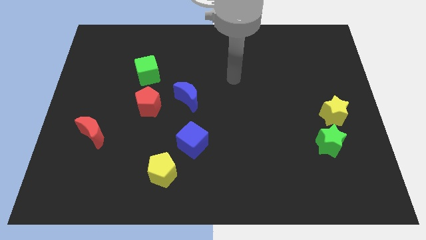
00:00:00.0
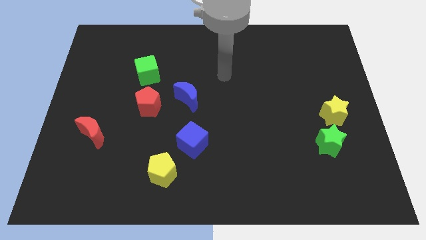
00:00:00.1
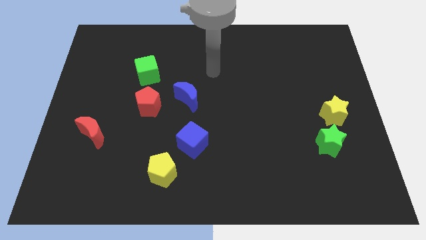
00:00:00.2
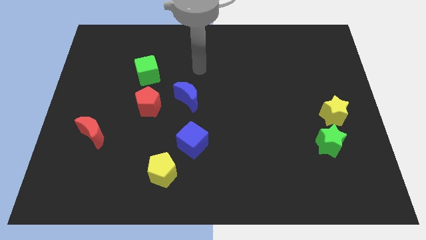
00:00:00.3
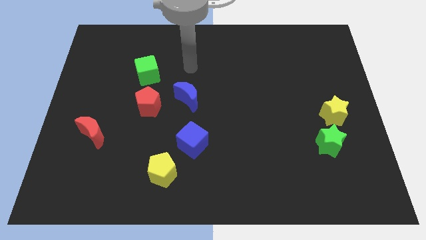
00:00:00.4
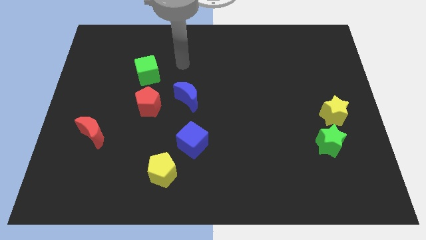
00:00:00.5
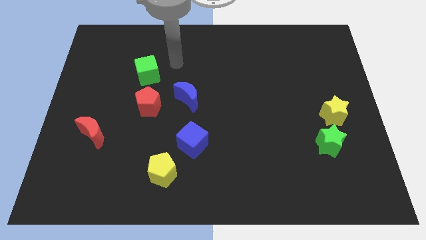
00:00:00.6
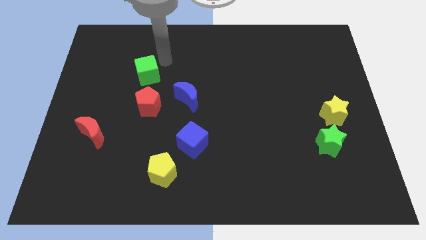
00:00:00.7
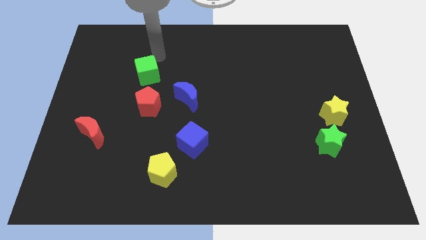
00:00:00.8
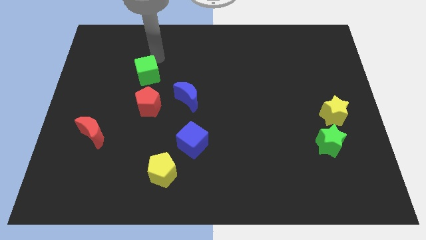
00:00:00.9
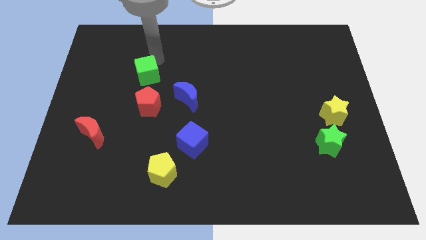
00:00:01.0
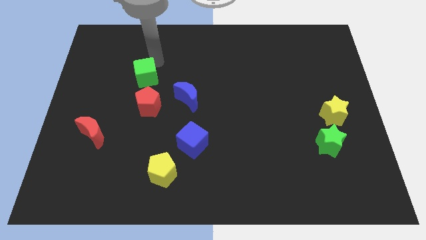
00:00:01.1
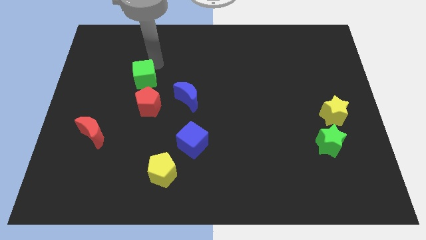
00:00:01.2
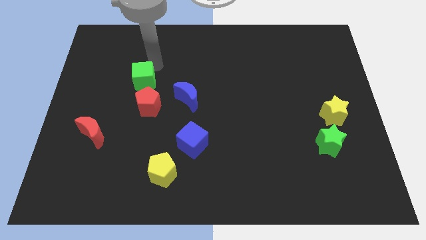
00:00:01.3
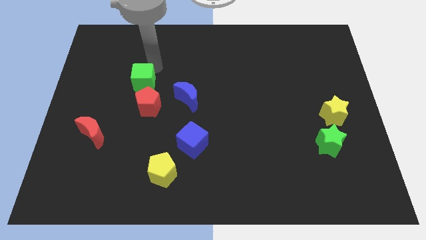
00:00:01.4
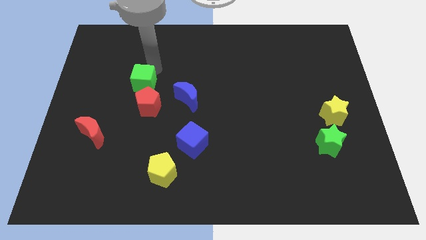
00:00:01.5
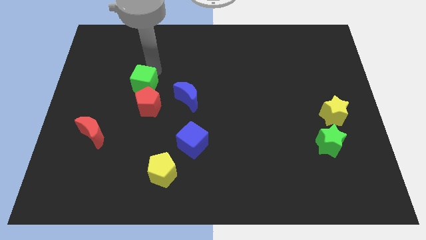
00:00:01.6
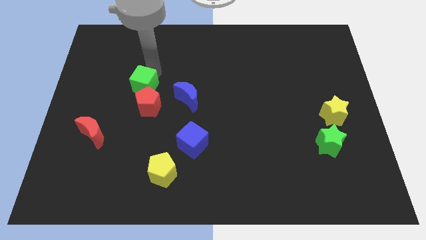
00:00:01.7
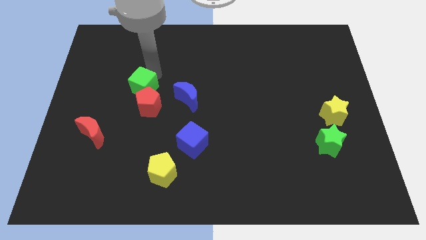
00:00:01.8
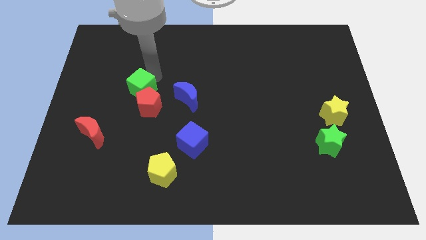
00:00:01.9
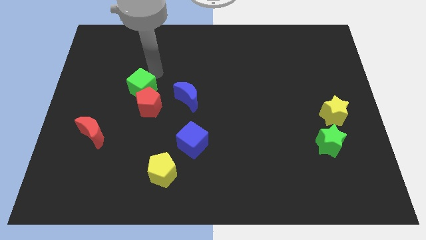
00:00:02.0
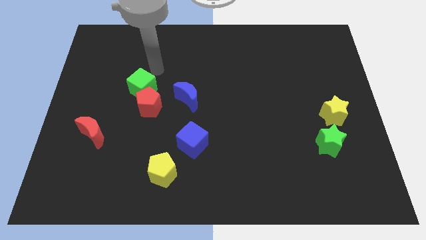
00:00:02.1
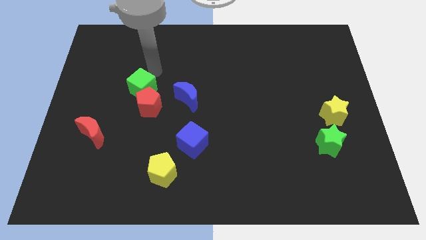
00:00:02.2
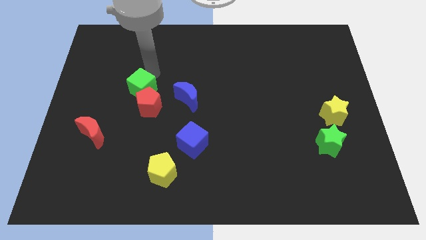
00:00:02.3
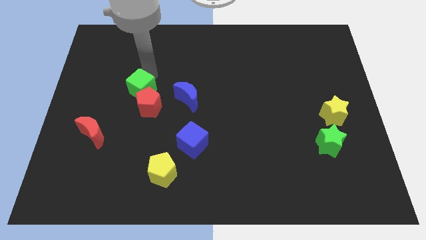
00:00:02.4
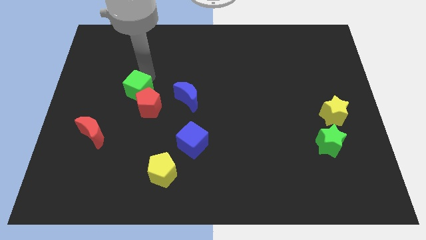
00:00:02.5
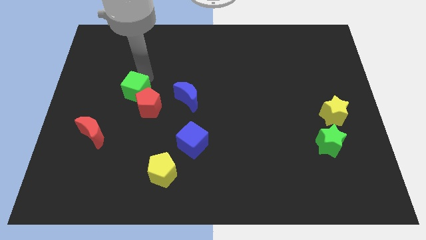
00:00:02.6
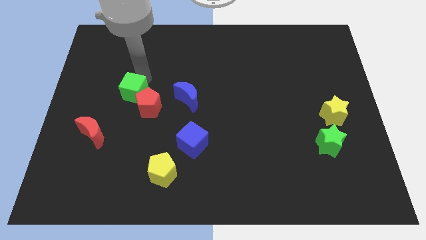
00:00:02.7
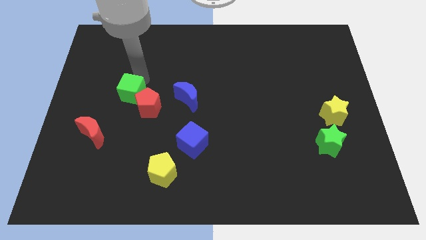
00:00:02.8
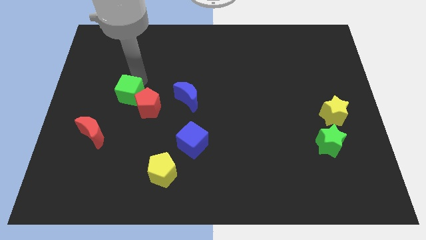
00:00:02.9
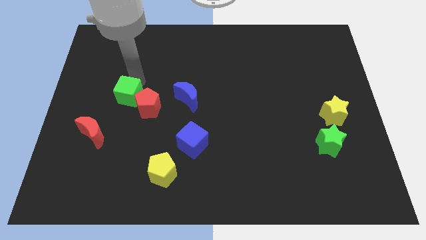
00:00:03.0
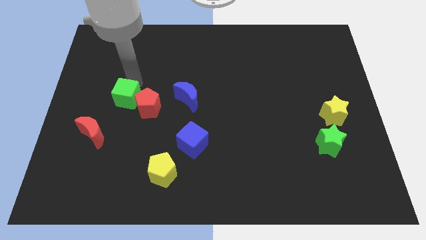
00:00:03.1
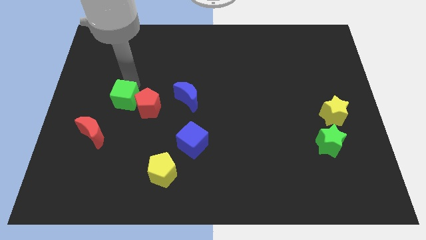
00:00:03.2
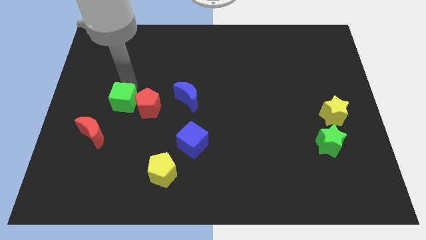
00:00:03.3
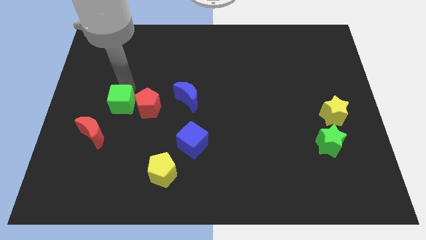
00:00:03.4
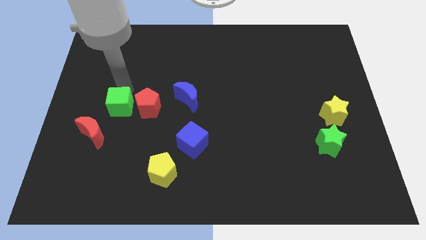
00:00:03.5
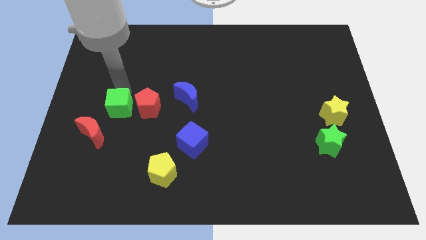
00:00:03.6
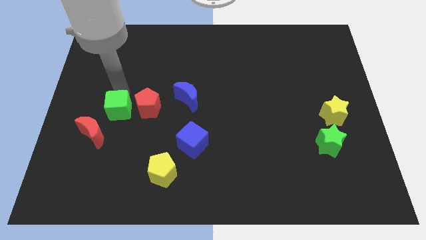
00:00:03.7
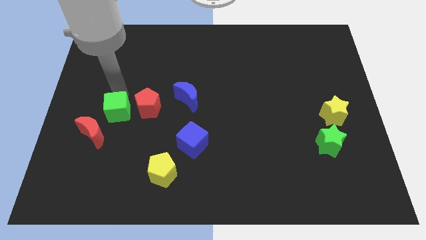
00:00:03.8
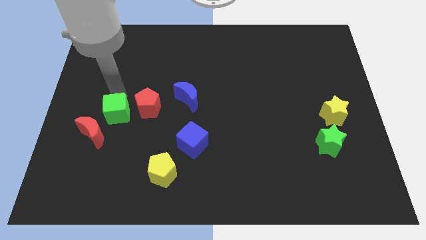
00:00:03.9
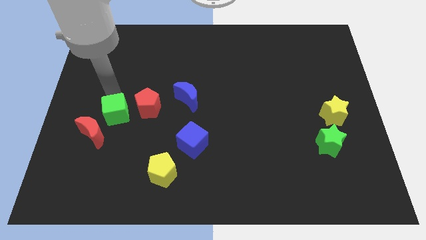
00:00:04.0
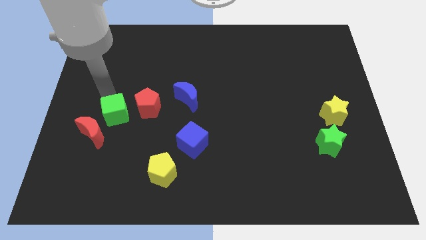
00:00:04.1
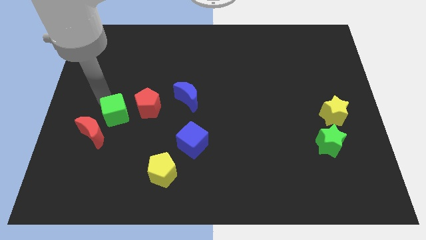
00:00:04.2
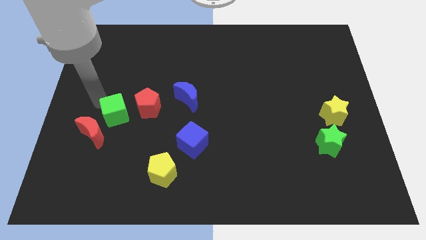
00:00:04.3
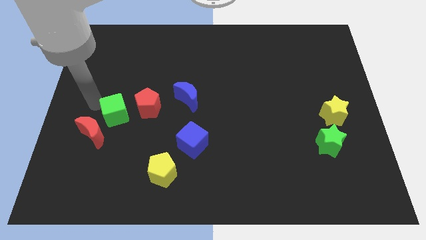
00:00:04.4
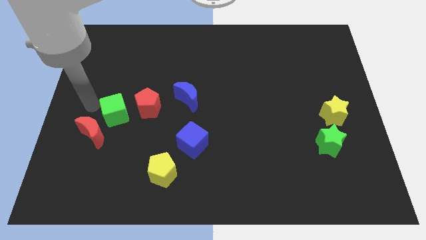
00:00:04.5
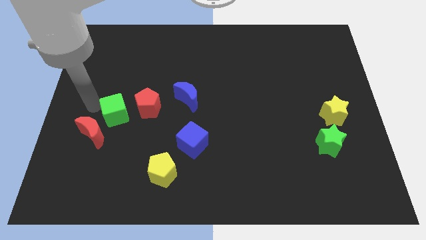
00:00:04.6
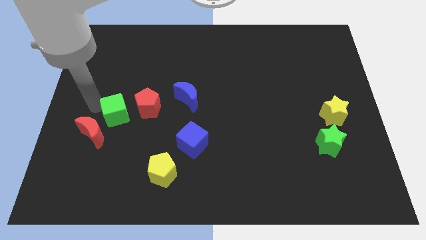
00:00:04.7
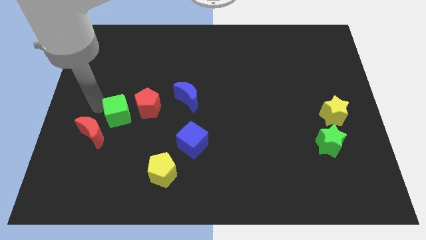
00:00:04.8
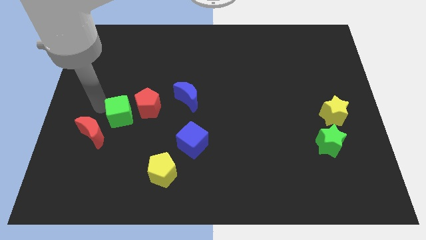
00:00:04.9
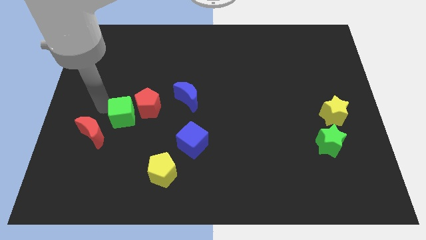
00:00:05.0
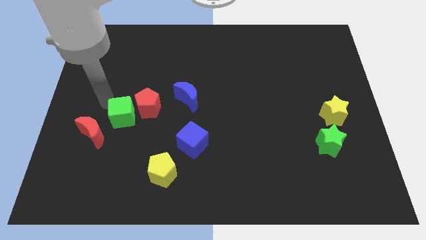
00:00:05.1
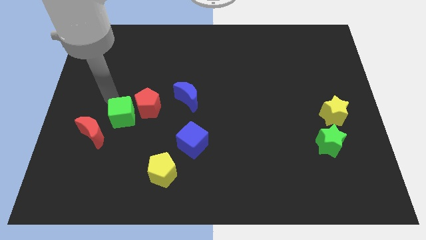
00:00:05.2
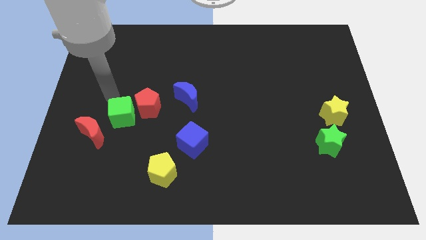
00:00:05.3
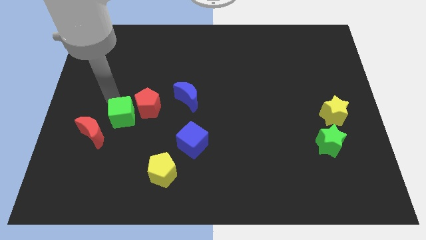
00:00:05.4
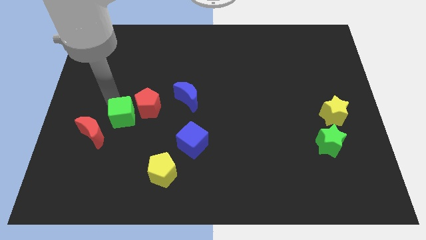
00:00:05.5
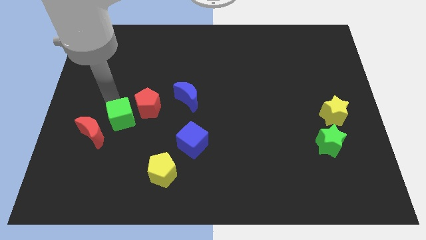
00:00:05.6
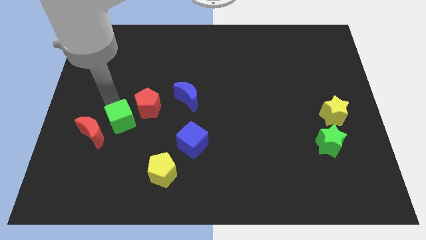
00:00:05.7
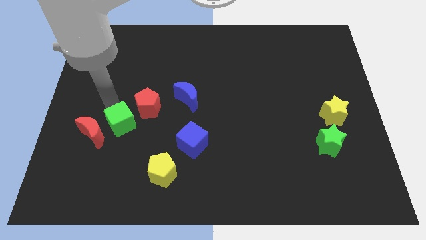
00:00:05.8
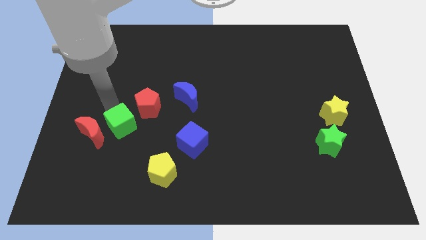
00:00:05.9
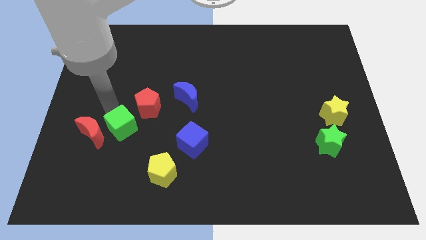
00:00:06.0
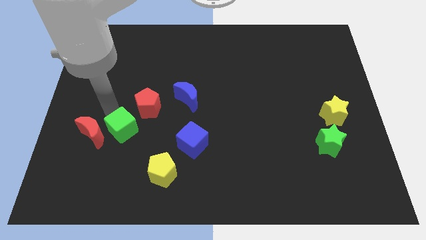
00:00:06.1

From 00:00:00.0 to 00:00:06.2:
slide the green cube to the bottom side of the red pentagon

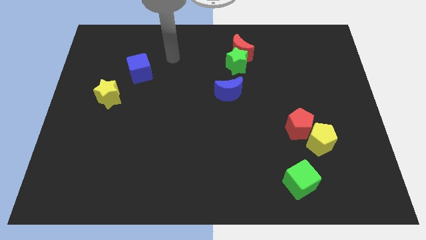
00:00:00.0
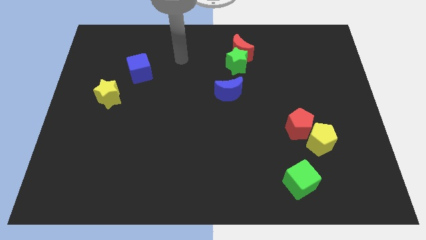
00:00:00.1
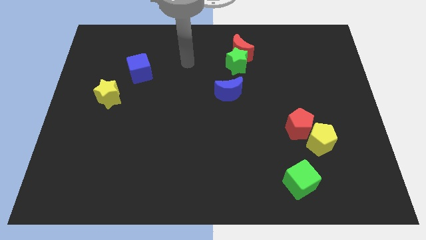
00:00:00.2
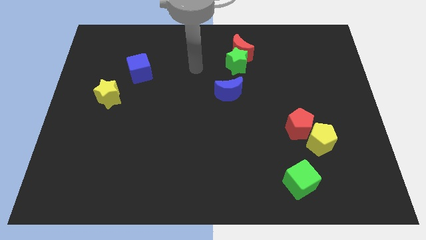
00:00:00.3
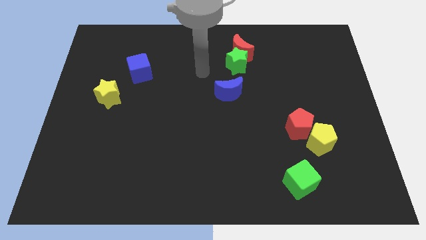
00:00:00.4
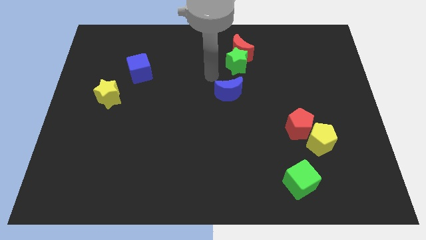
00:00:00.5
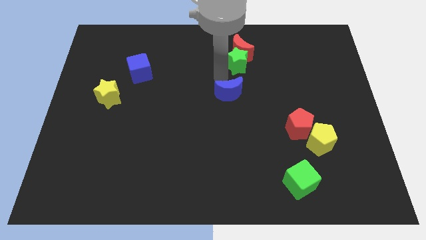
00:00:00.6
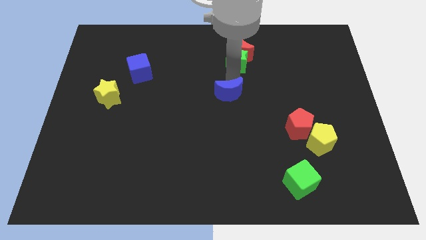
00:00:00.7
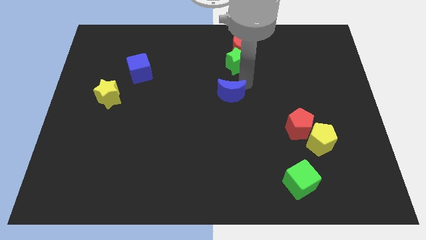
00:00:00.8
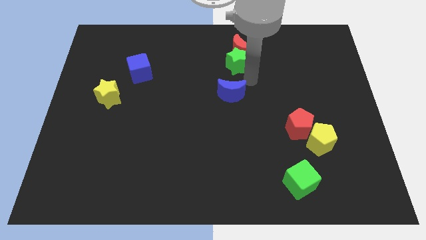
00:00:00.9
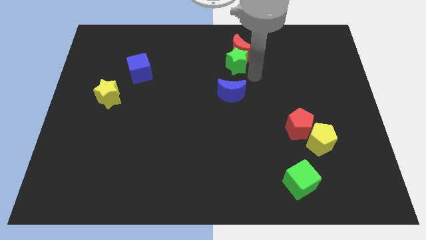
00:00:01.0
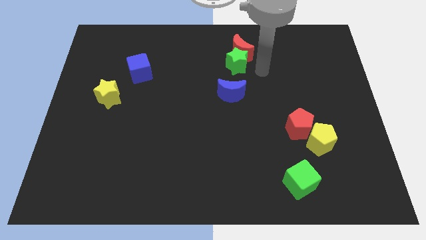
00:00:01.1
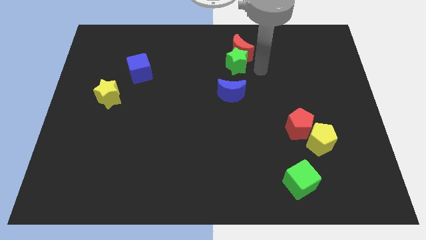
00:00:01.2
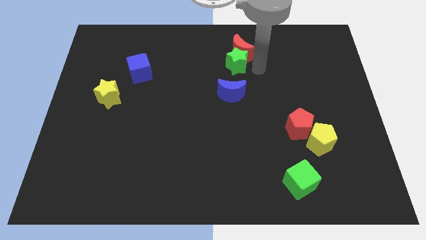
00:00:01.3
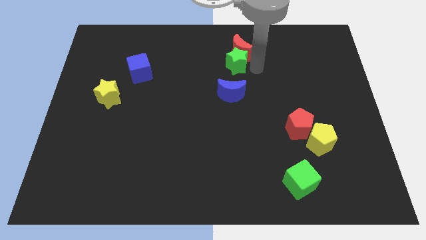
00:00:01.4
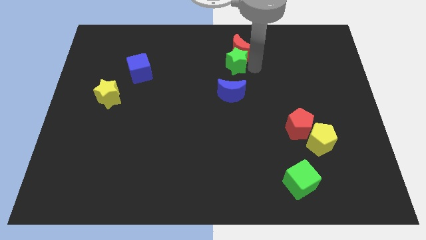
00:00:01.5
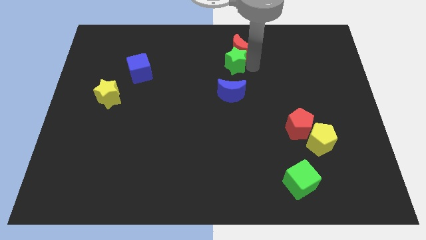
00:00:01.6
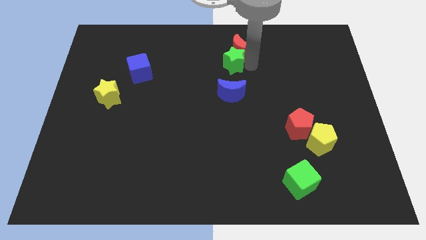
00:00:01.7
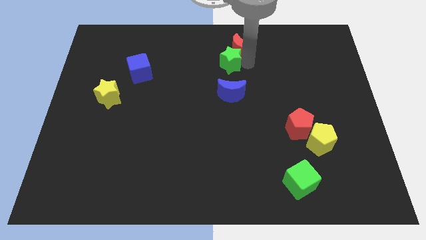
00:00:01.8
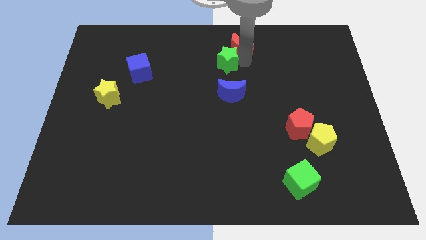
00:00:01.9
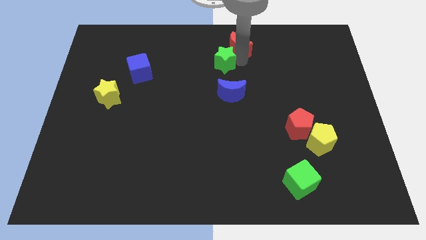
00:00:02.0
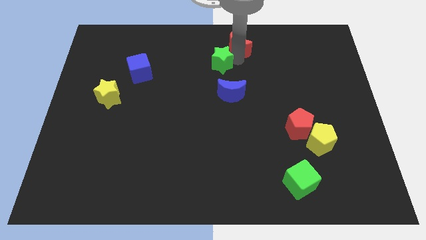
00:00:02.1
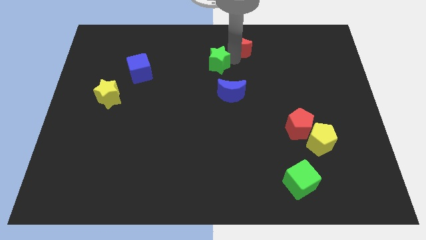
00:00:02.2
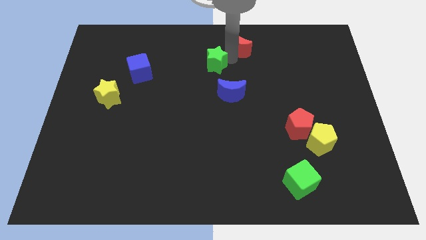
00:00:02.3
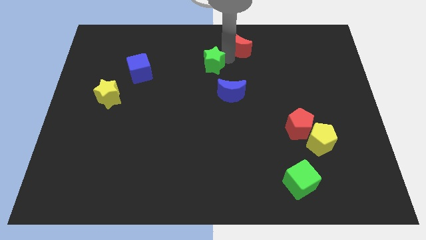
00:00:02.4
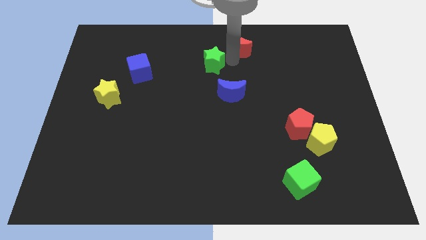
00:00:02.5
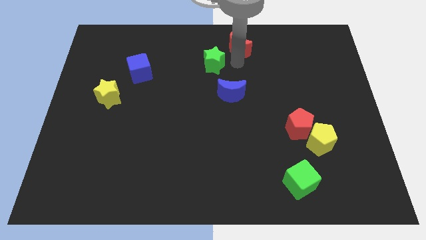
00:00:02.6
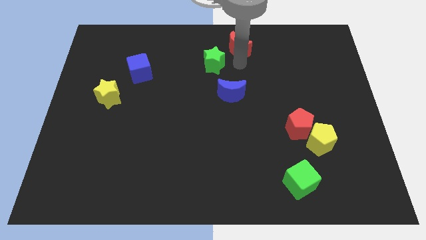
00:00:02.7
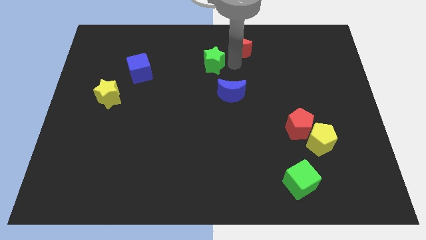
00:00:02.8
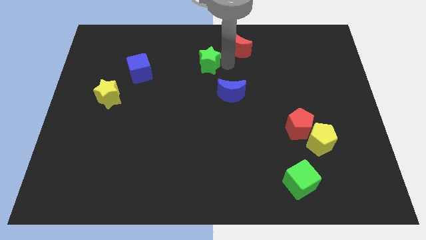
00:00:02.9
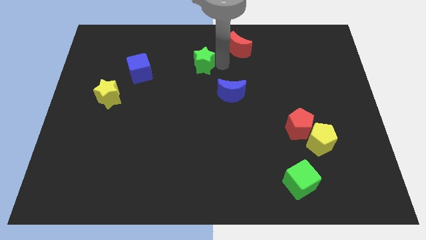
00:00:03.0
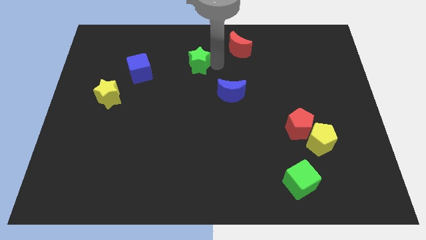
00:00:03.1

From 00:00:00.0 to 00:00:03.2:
put the green star just right of the blue cube
